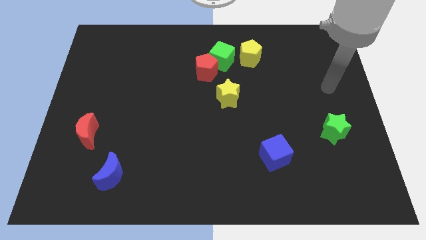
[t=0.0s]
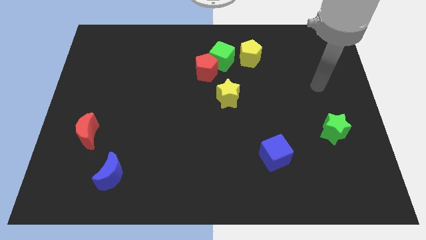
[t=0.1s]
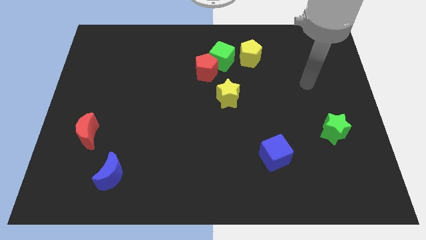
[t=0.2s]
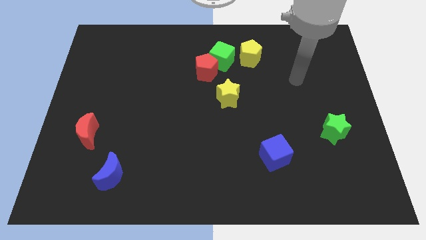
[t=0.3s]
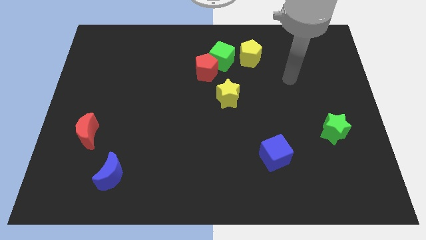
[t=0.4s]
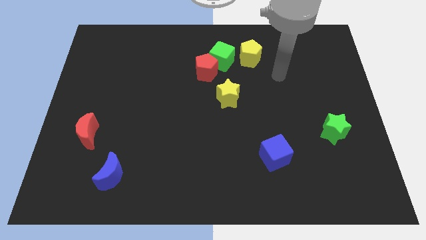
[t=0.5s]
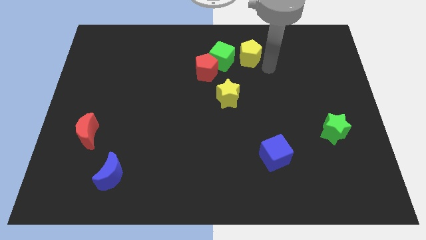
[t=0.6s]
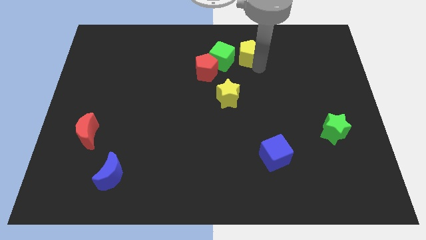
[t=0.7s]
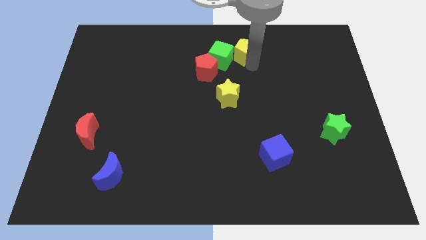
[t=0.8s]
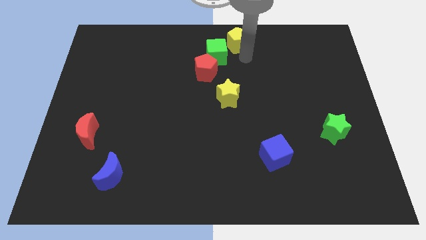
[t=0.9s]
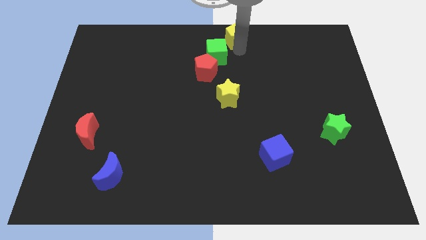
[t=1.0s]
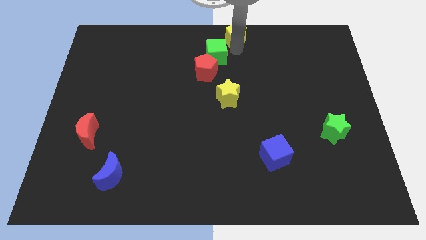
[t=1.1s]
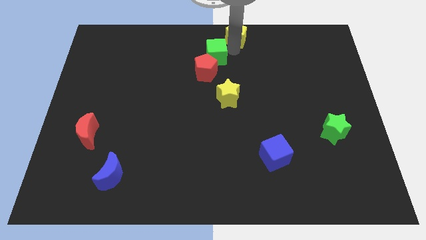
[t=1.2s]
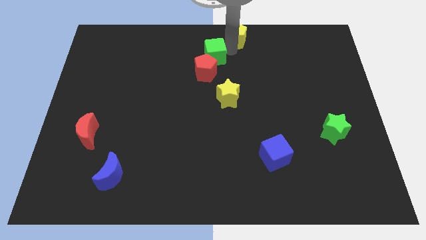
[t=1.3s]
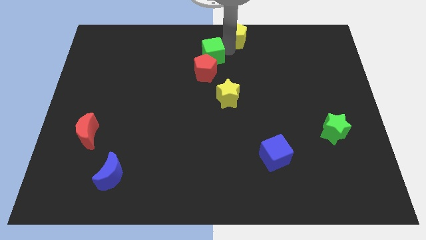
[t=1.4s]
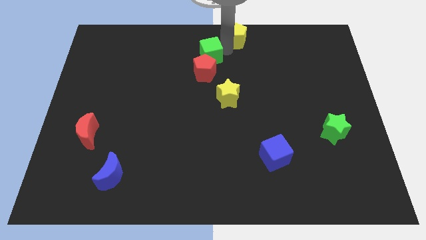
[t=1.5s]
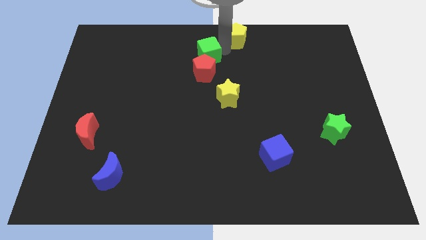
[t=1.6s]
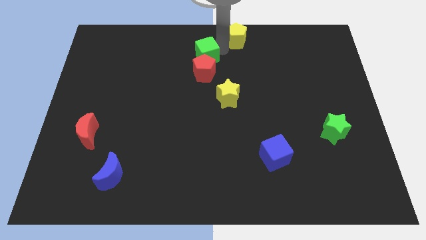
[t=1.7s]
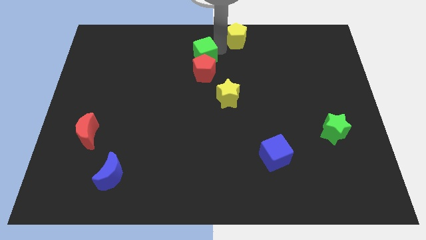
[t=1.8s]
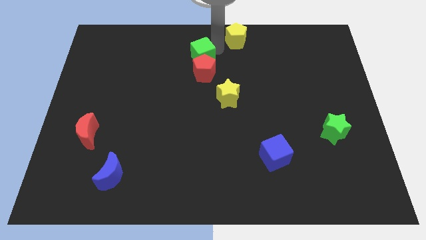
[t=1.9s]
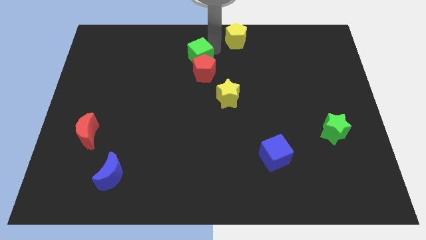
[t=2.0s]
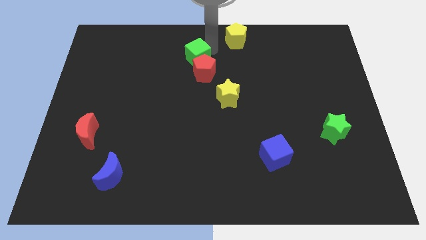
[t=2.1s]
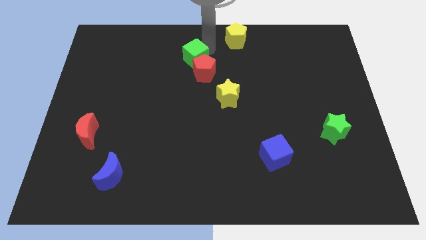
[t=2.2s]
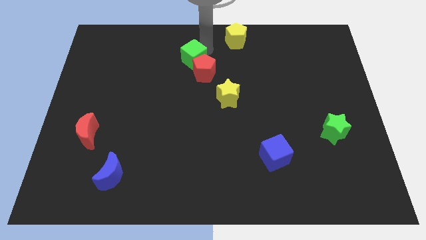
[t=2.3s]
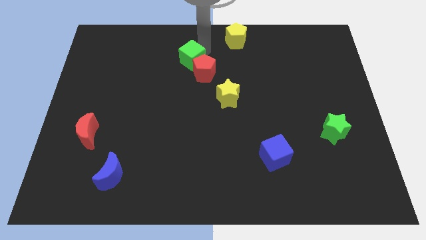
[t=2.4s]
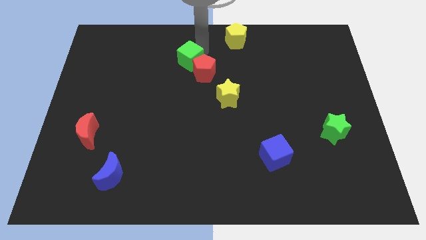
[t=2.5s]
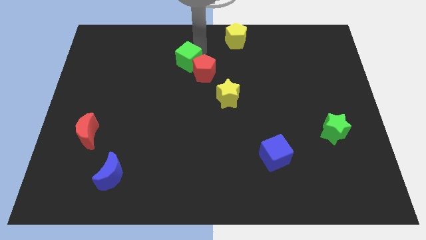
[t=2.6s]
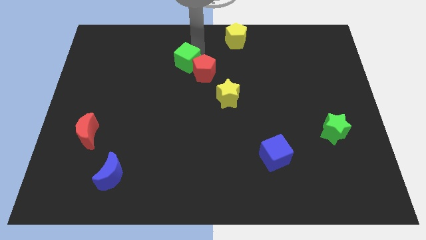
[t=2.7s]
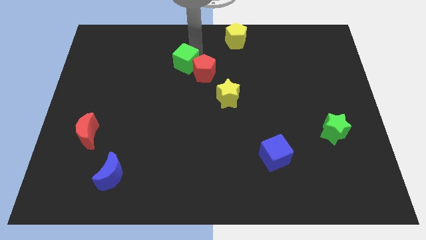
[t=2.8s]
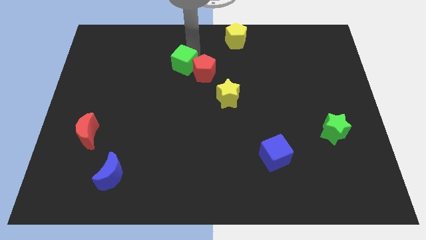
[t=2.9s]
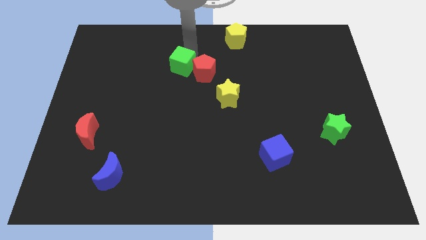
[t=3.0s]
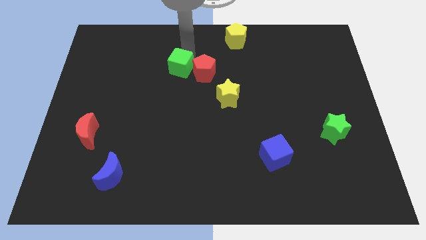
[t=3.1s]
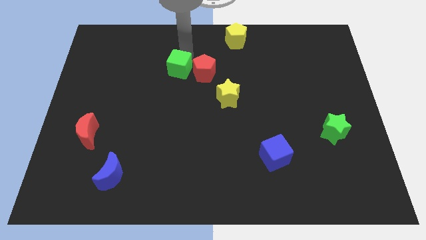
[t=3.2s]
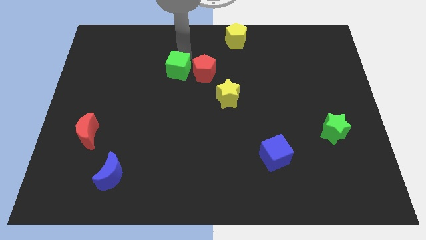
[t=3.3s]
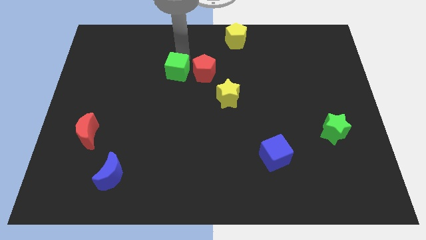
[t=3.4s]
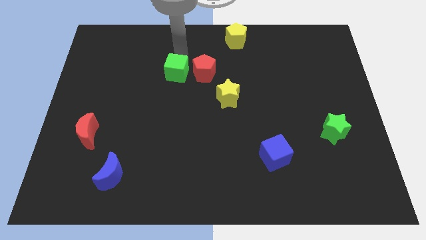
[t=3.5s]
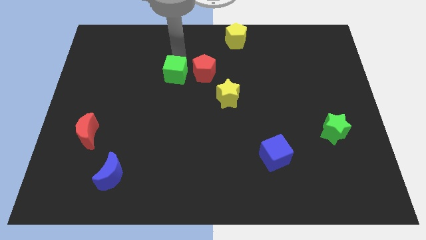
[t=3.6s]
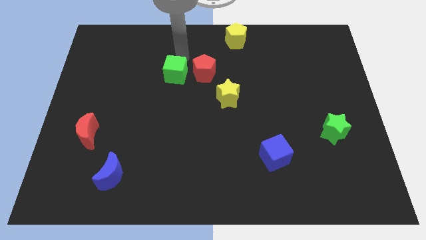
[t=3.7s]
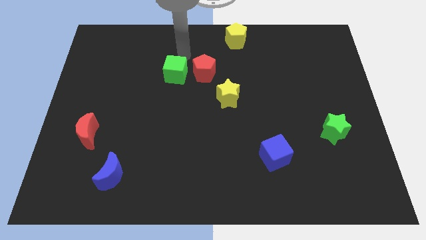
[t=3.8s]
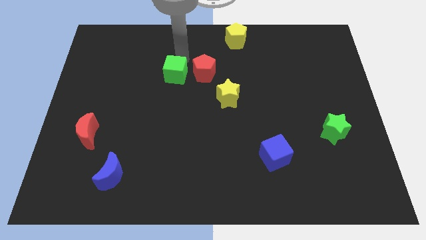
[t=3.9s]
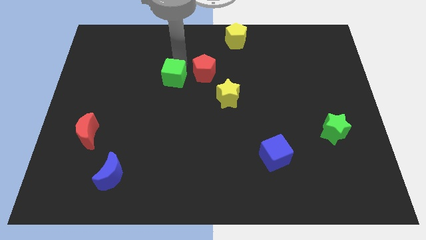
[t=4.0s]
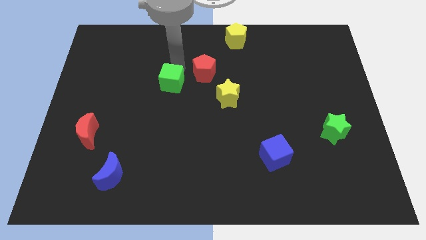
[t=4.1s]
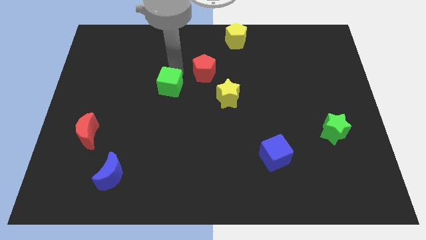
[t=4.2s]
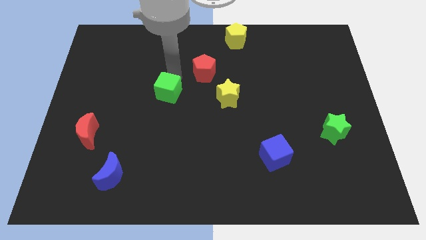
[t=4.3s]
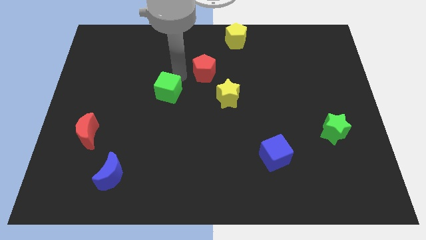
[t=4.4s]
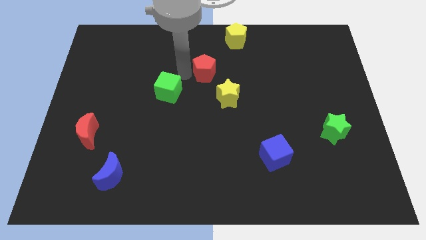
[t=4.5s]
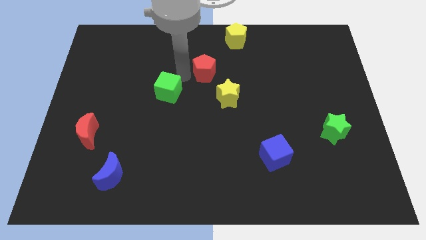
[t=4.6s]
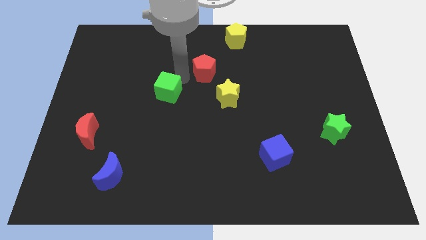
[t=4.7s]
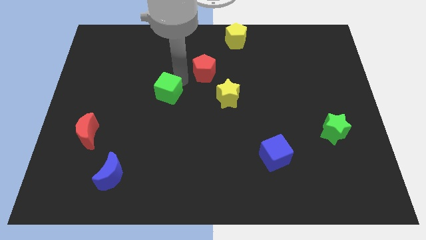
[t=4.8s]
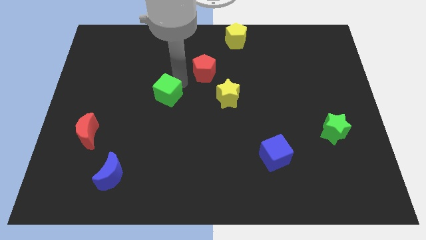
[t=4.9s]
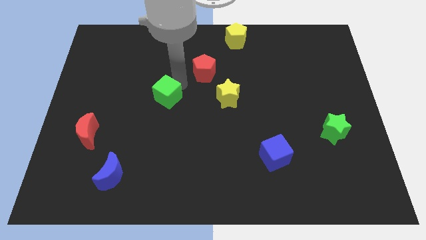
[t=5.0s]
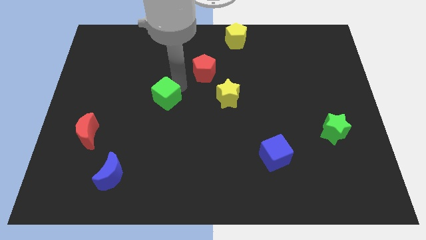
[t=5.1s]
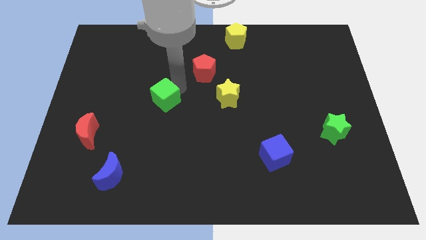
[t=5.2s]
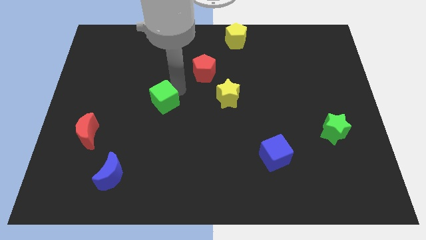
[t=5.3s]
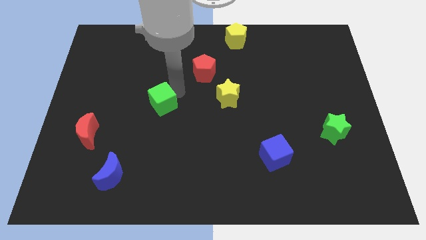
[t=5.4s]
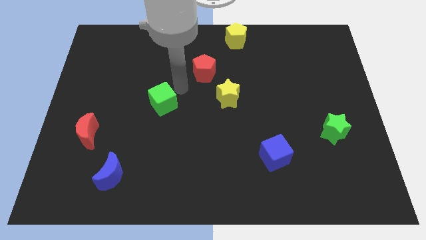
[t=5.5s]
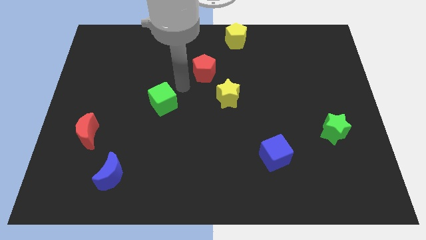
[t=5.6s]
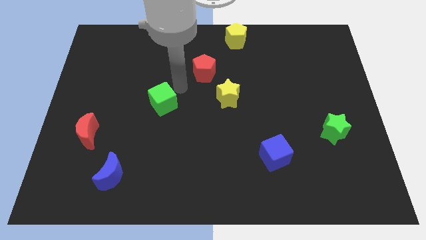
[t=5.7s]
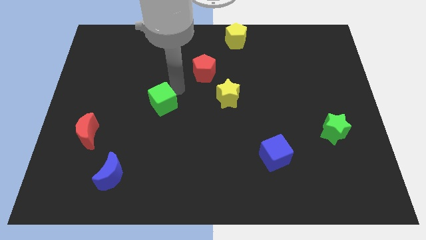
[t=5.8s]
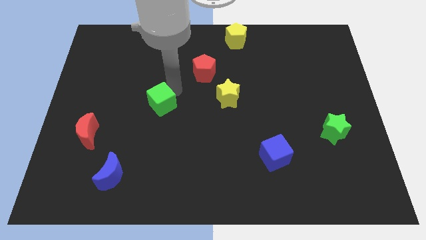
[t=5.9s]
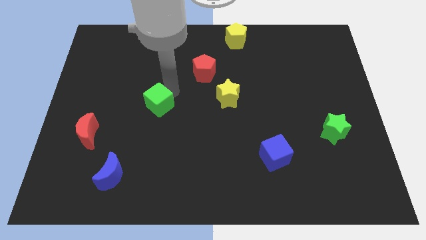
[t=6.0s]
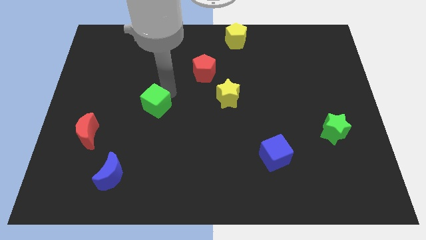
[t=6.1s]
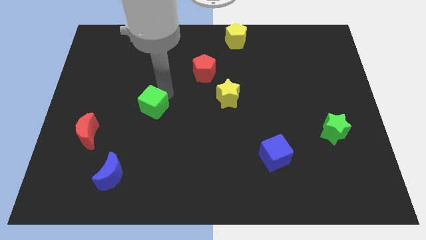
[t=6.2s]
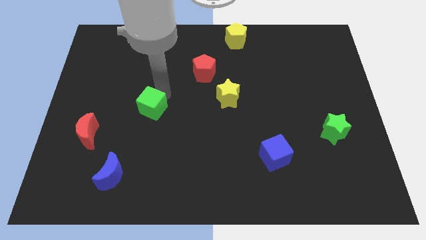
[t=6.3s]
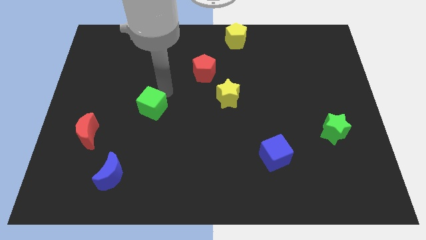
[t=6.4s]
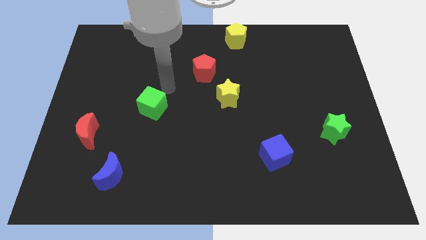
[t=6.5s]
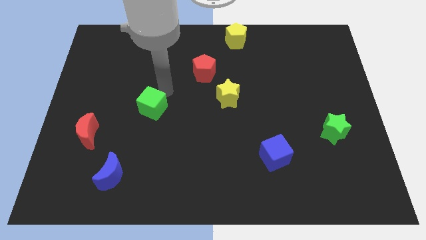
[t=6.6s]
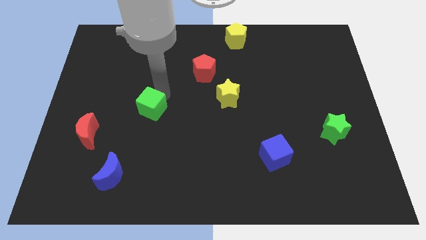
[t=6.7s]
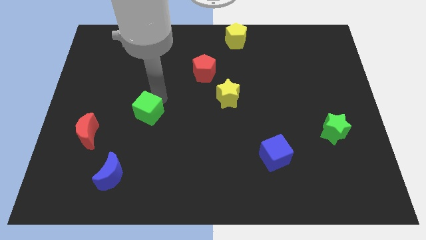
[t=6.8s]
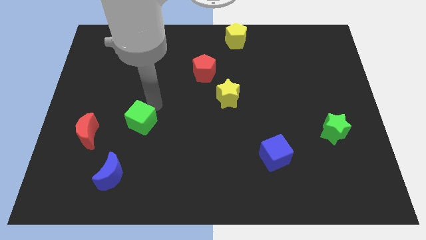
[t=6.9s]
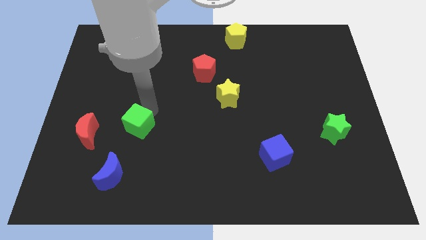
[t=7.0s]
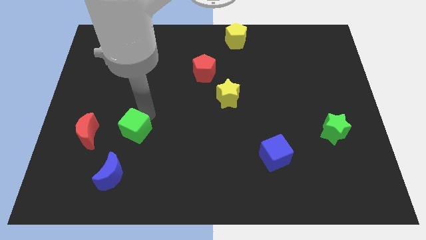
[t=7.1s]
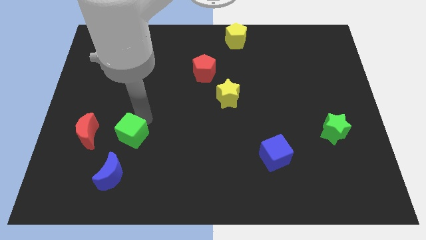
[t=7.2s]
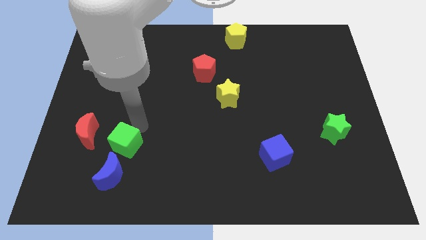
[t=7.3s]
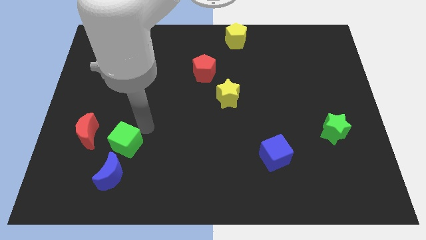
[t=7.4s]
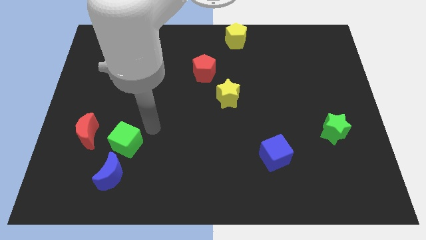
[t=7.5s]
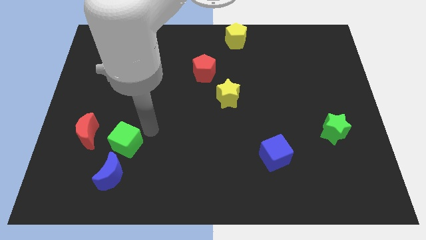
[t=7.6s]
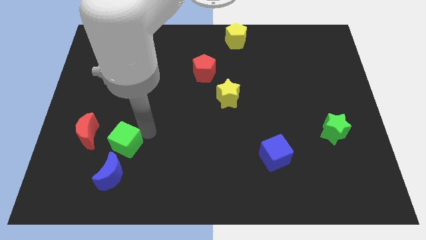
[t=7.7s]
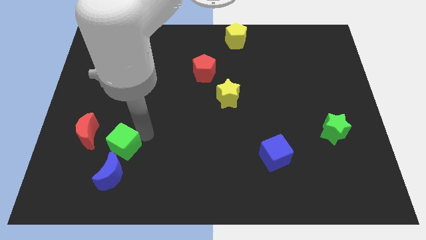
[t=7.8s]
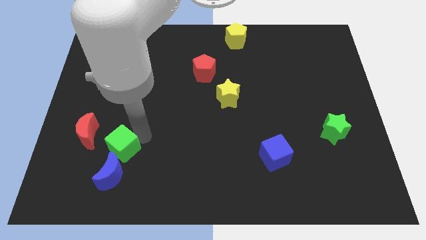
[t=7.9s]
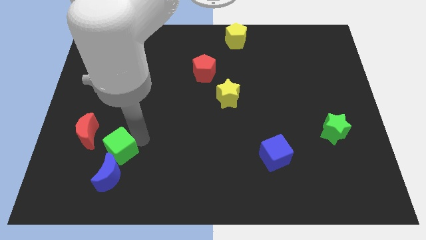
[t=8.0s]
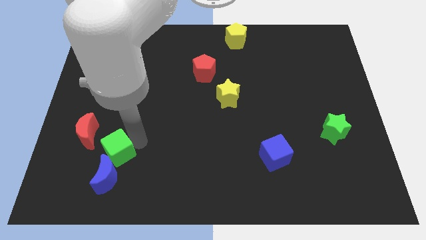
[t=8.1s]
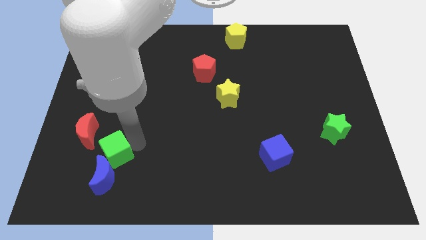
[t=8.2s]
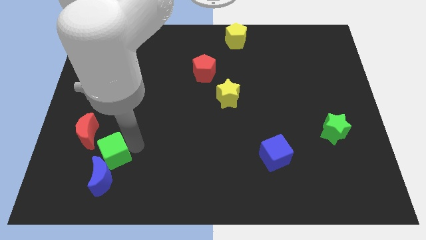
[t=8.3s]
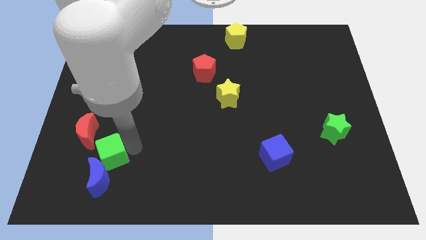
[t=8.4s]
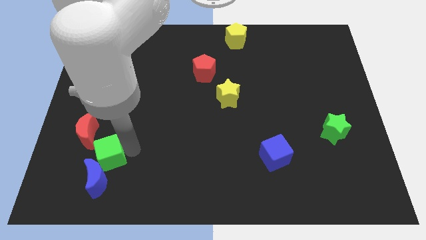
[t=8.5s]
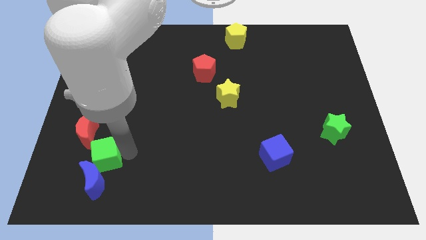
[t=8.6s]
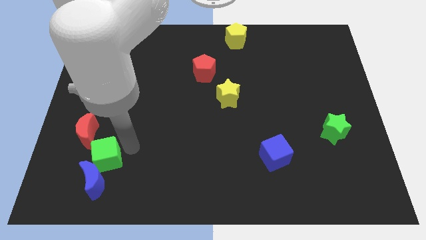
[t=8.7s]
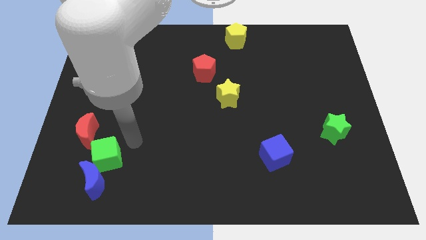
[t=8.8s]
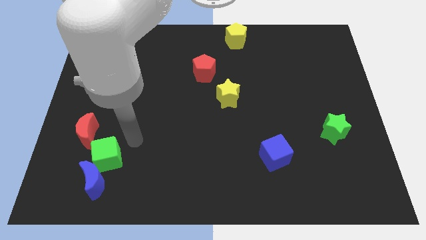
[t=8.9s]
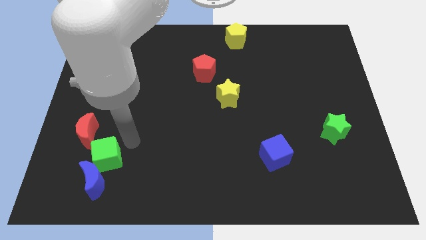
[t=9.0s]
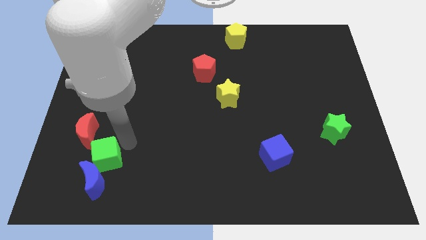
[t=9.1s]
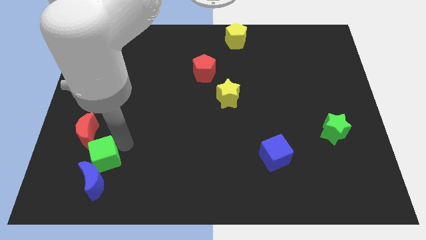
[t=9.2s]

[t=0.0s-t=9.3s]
move the green cube below the red moon
